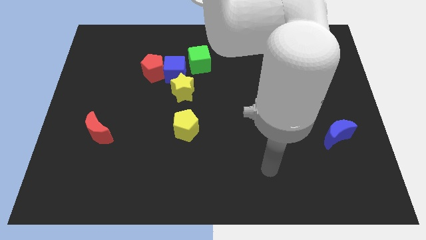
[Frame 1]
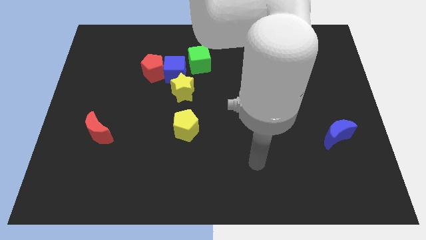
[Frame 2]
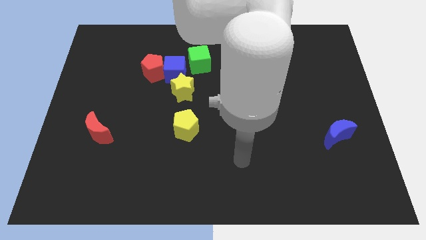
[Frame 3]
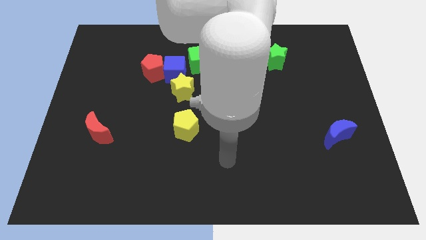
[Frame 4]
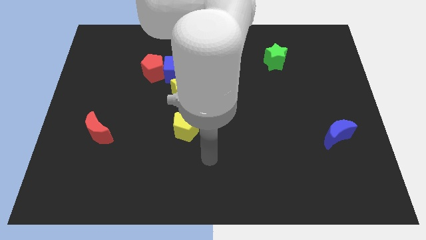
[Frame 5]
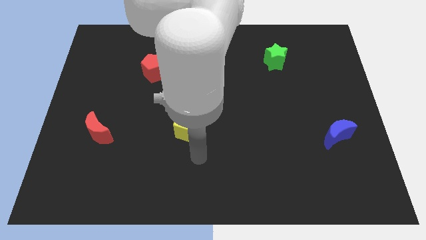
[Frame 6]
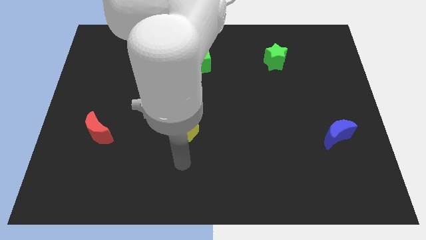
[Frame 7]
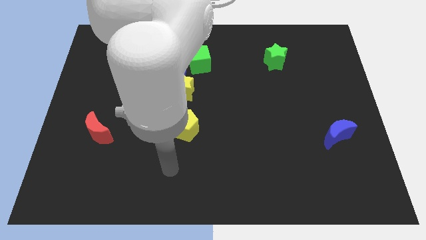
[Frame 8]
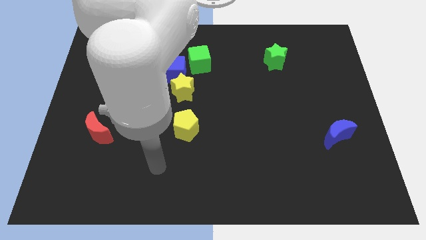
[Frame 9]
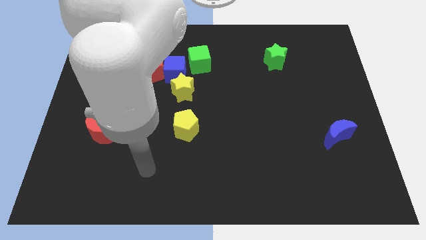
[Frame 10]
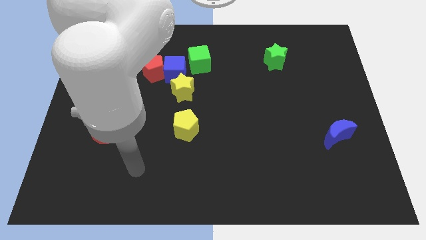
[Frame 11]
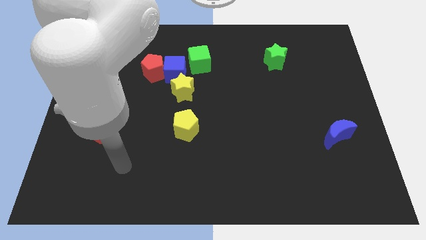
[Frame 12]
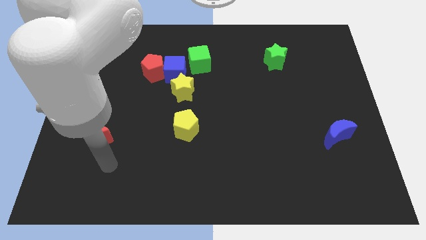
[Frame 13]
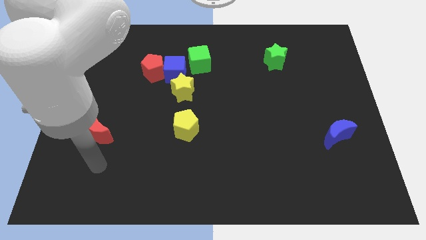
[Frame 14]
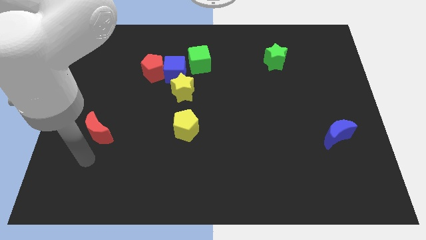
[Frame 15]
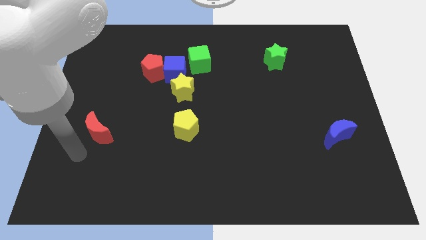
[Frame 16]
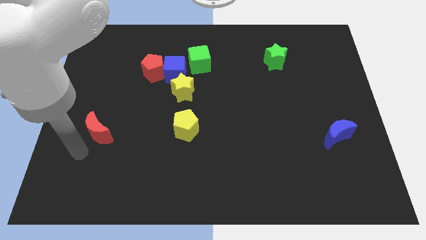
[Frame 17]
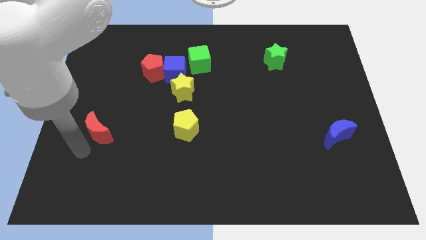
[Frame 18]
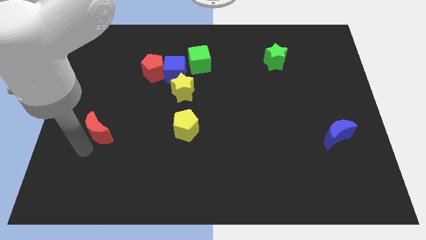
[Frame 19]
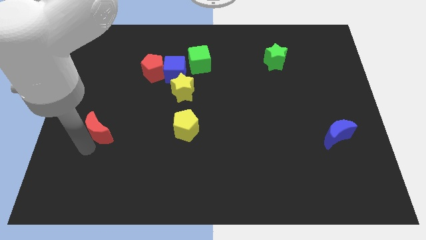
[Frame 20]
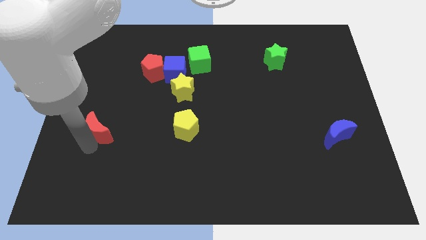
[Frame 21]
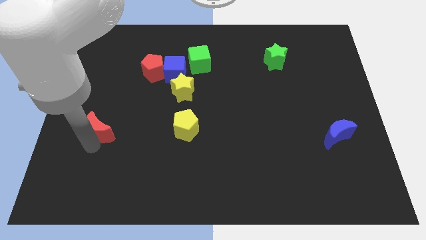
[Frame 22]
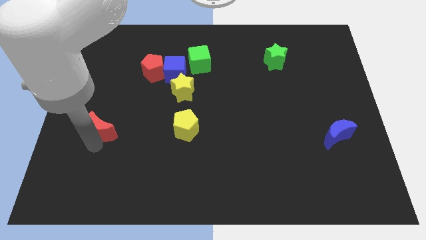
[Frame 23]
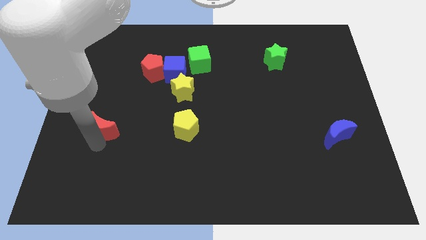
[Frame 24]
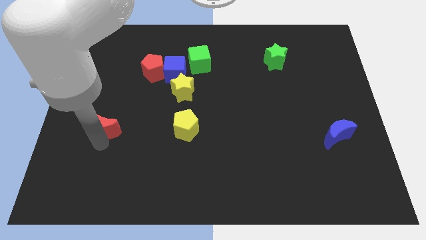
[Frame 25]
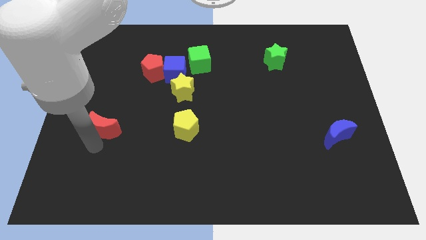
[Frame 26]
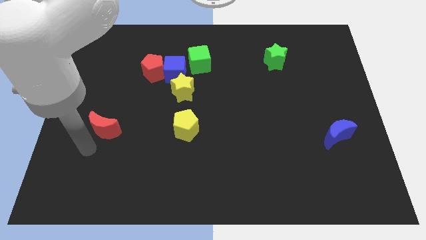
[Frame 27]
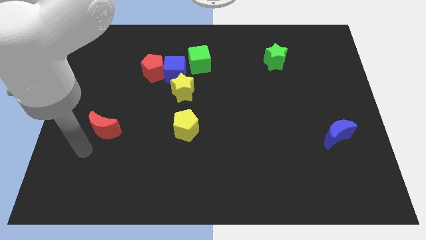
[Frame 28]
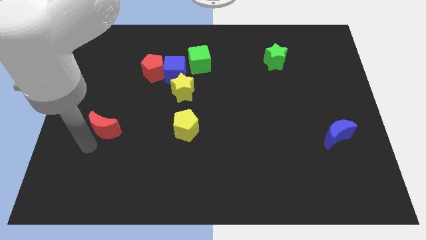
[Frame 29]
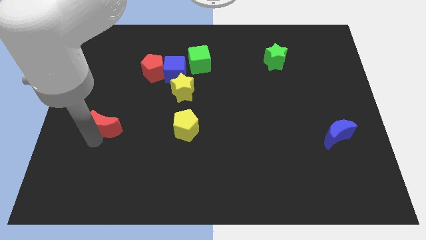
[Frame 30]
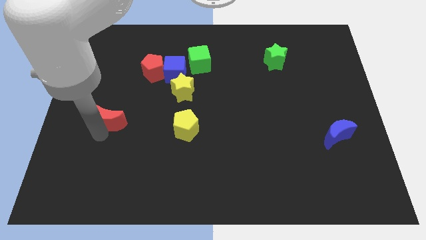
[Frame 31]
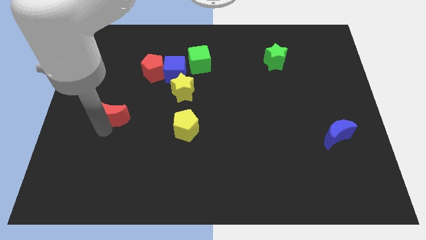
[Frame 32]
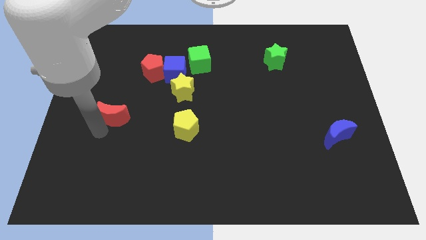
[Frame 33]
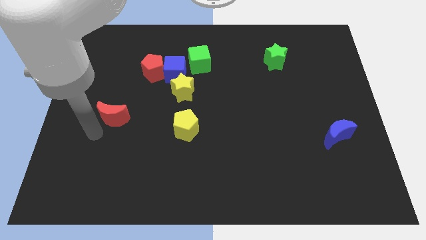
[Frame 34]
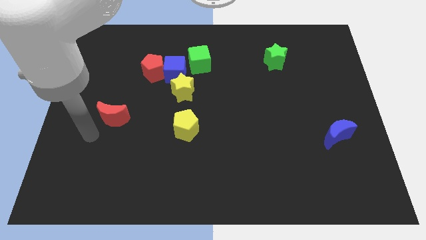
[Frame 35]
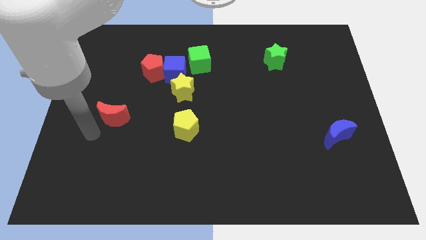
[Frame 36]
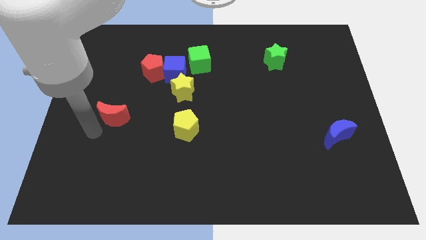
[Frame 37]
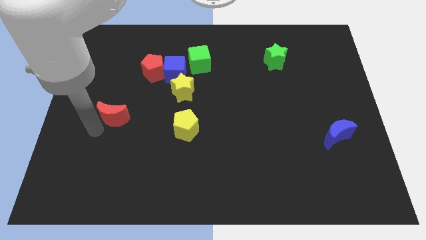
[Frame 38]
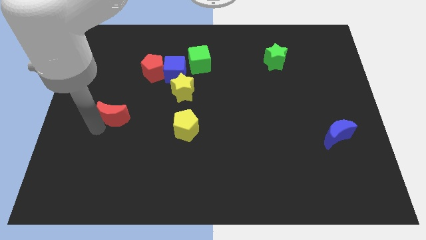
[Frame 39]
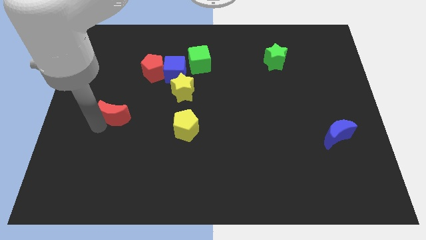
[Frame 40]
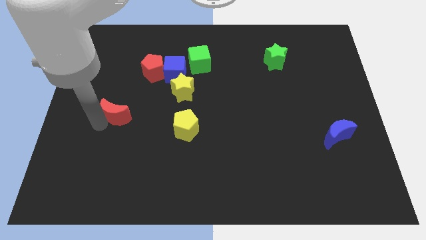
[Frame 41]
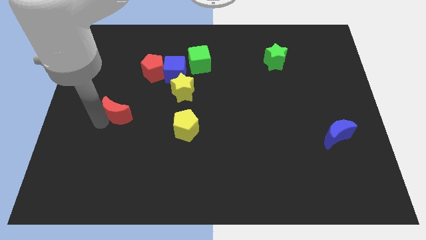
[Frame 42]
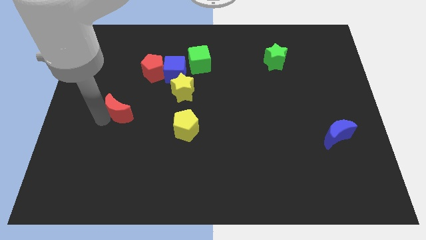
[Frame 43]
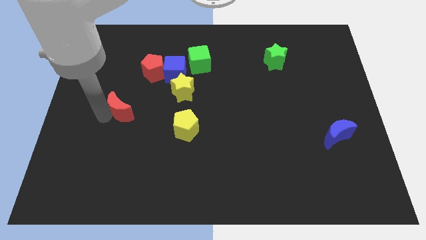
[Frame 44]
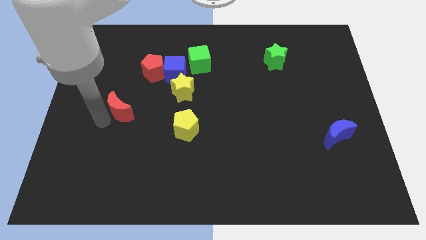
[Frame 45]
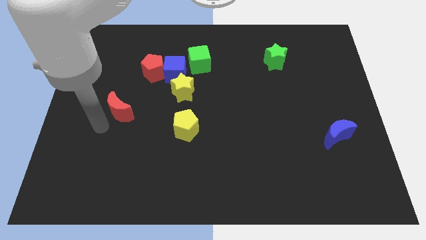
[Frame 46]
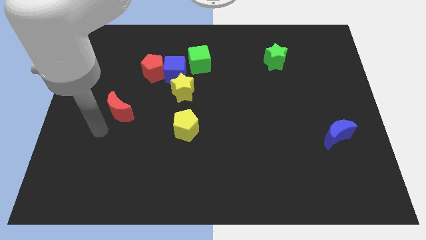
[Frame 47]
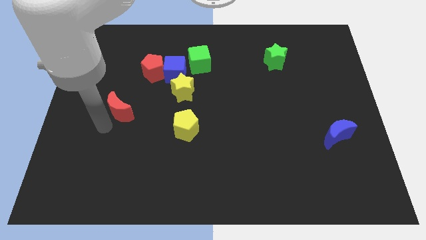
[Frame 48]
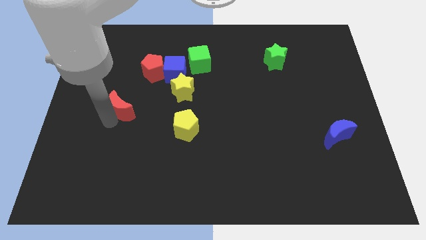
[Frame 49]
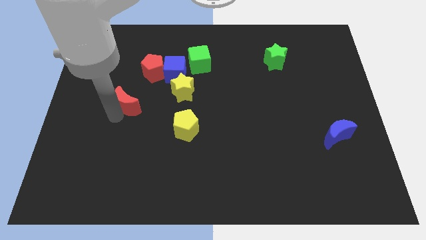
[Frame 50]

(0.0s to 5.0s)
put the red moon left of the yellow star
